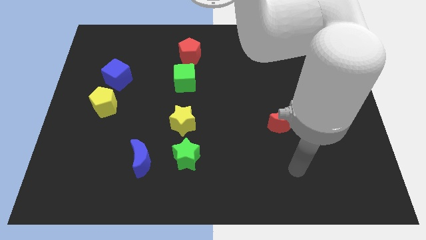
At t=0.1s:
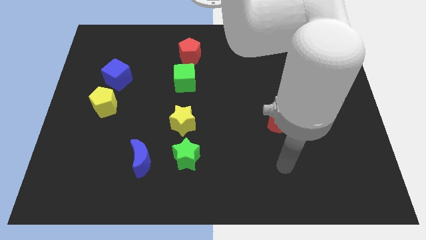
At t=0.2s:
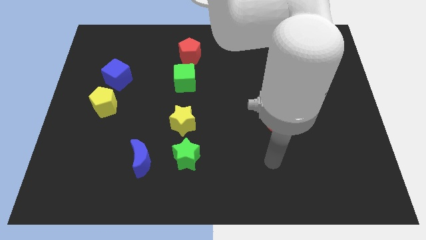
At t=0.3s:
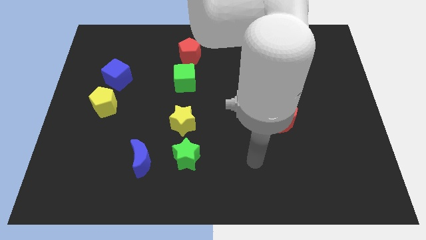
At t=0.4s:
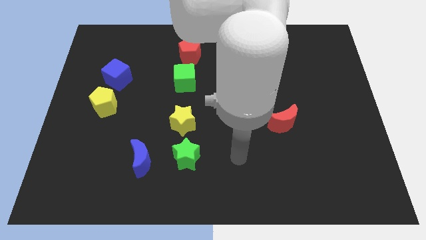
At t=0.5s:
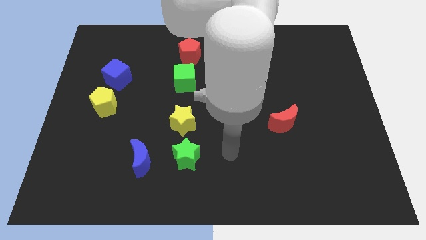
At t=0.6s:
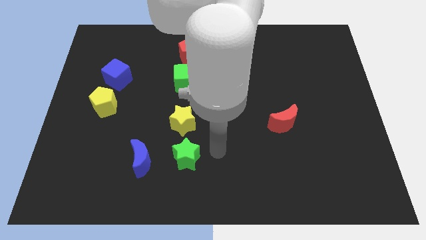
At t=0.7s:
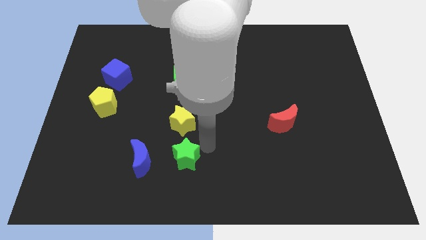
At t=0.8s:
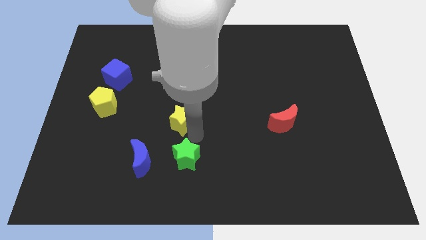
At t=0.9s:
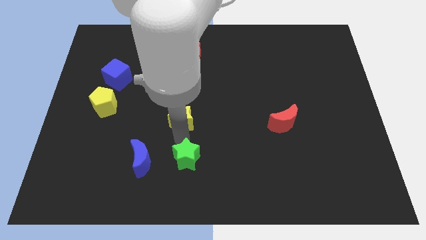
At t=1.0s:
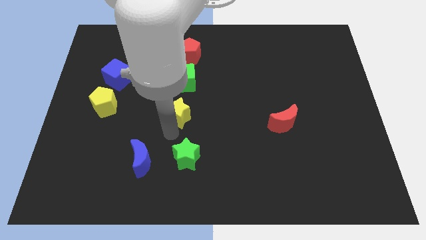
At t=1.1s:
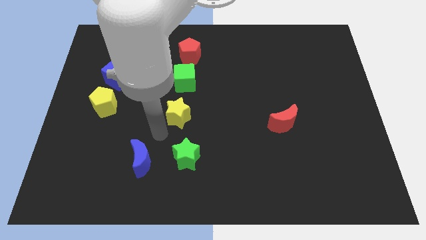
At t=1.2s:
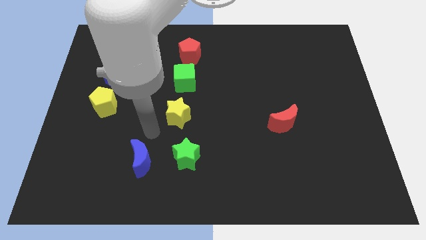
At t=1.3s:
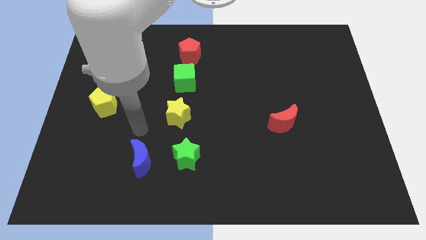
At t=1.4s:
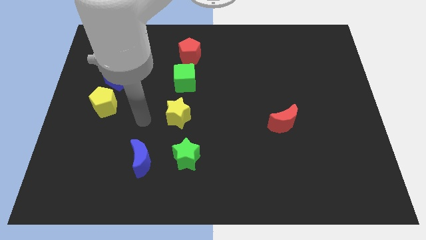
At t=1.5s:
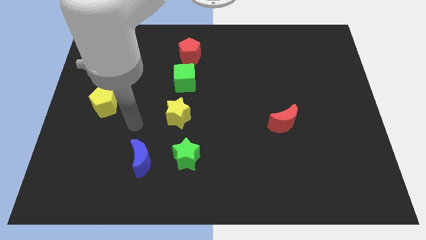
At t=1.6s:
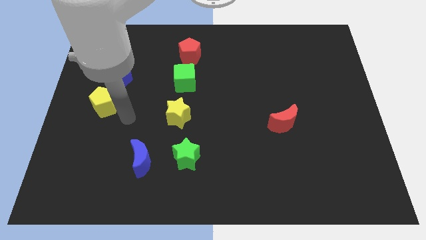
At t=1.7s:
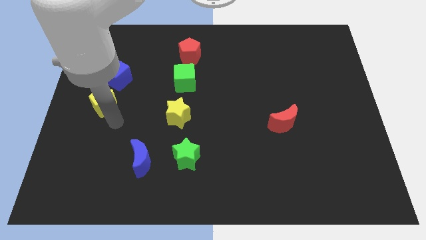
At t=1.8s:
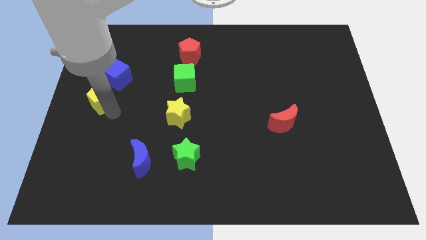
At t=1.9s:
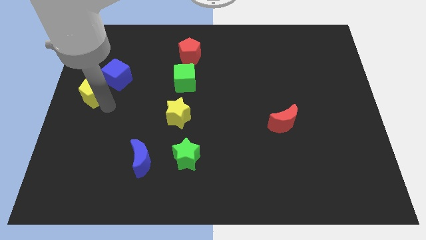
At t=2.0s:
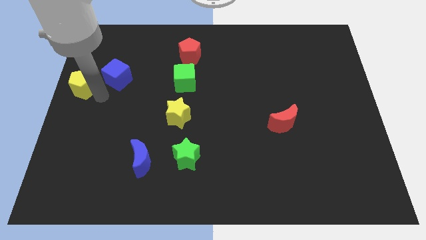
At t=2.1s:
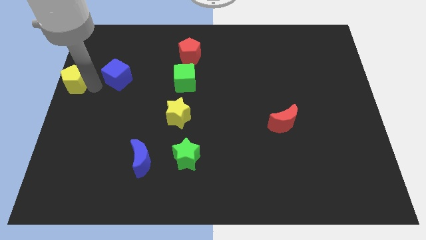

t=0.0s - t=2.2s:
move the blue cube away from the yellow pentagon

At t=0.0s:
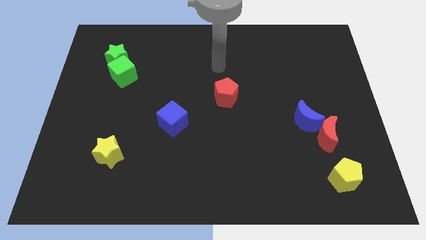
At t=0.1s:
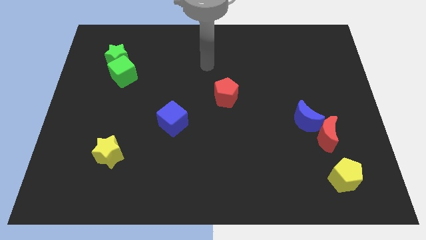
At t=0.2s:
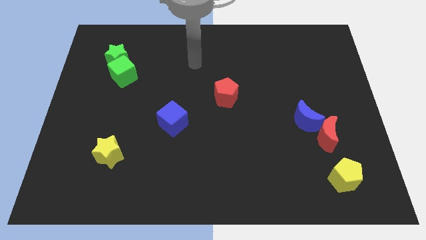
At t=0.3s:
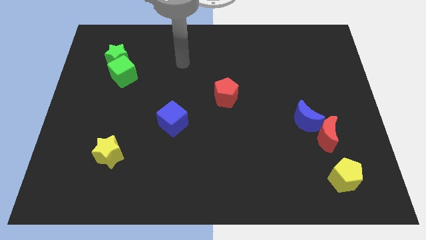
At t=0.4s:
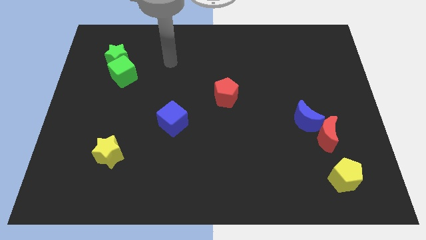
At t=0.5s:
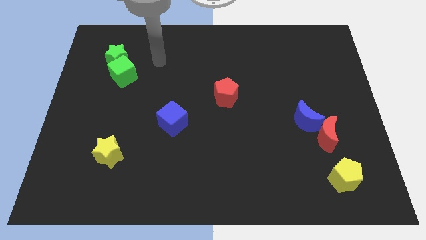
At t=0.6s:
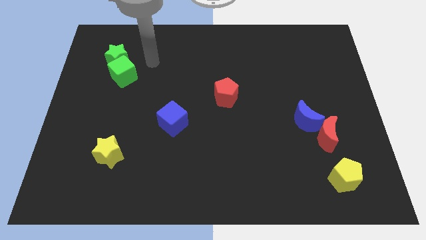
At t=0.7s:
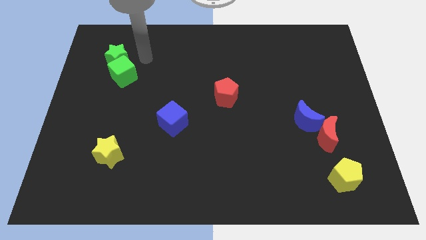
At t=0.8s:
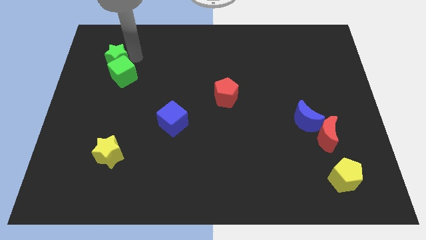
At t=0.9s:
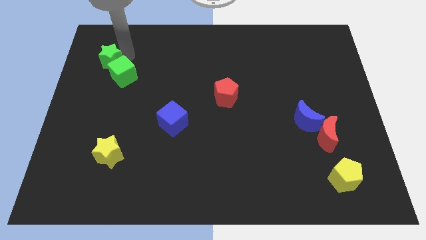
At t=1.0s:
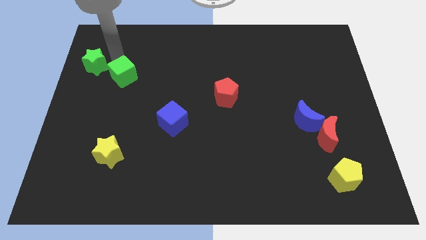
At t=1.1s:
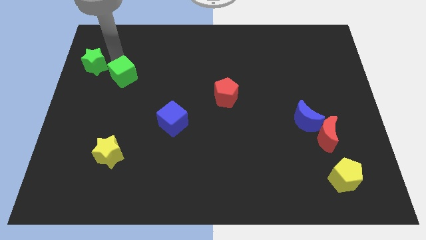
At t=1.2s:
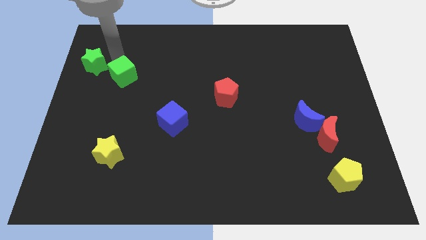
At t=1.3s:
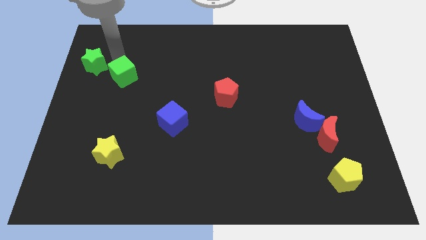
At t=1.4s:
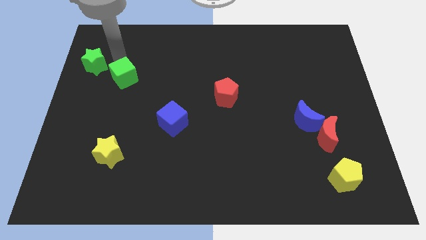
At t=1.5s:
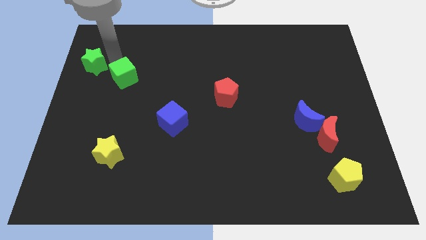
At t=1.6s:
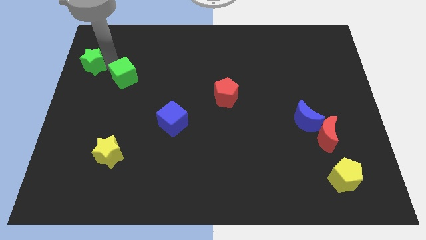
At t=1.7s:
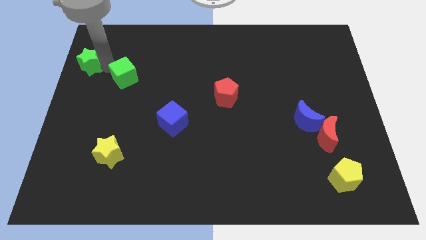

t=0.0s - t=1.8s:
separate the green cube from the green star

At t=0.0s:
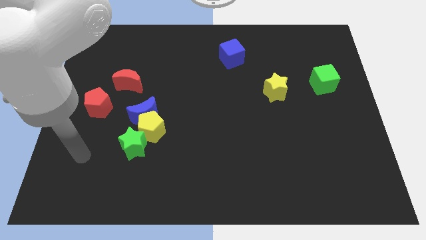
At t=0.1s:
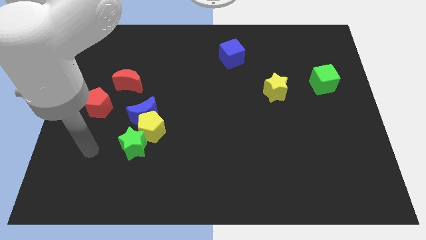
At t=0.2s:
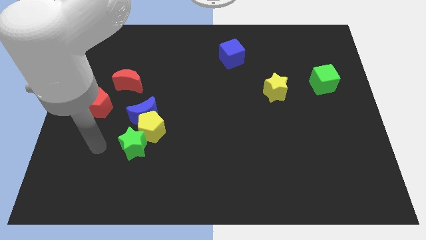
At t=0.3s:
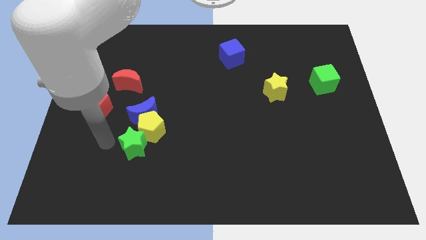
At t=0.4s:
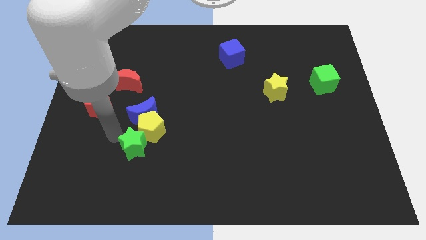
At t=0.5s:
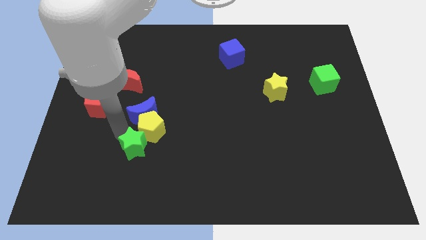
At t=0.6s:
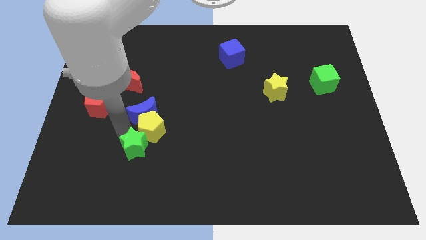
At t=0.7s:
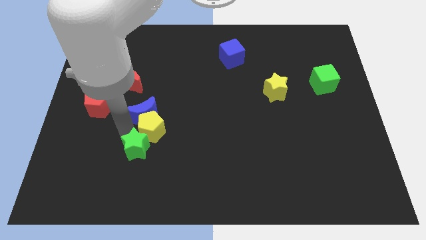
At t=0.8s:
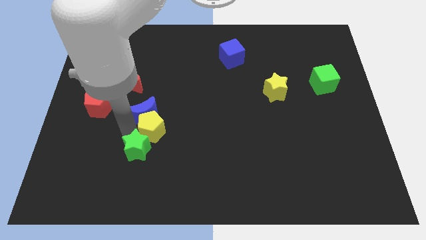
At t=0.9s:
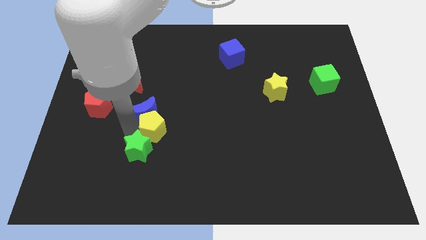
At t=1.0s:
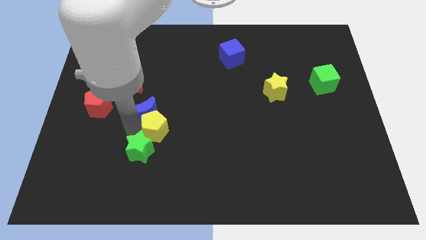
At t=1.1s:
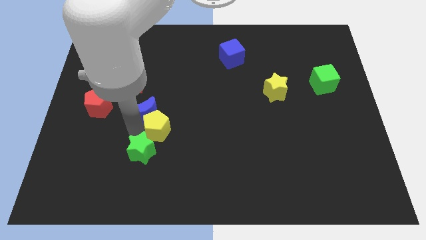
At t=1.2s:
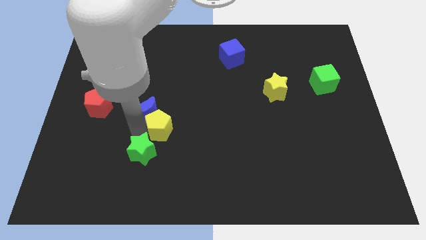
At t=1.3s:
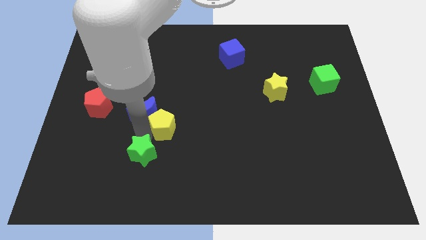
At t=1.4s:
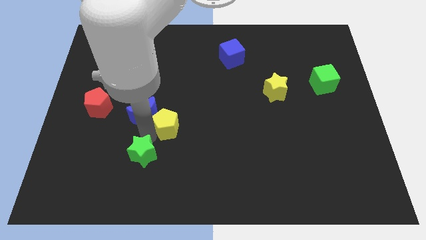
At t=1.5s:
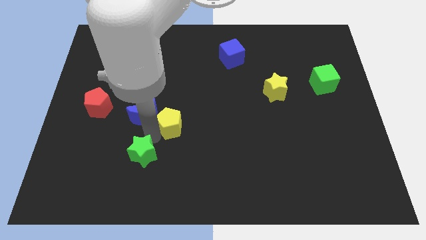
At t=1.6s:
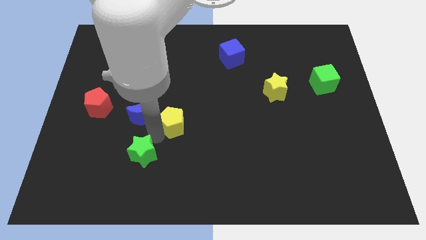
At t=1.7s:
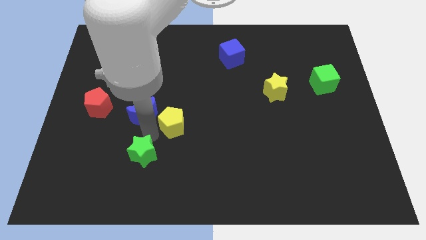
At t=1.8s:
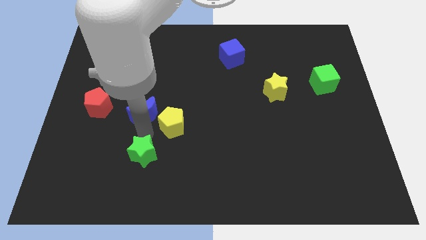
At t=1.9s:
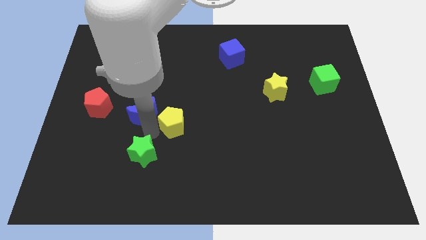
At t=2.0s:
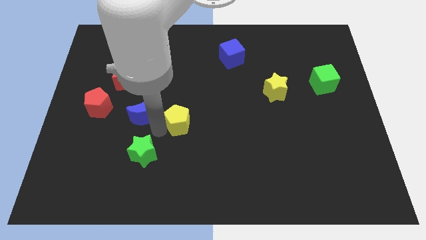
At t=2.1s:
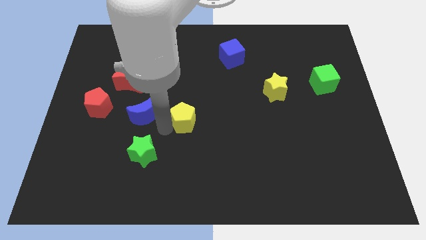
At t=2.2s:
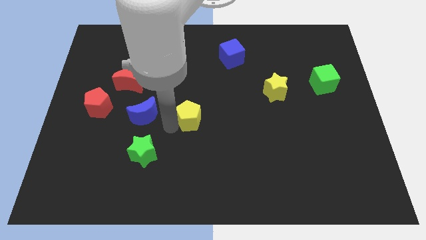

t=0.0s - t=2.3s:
move the yellow pentagon away from the blue moon and green star

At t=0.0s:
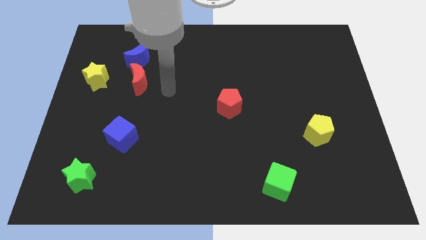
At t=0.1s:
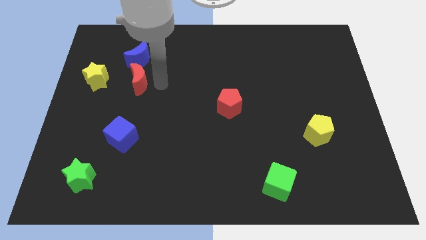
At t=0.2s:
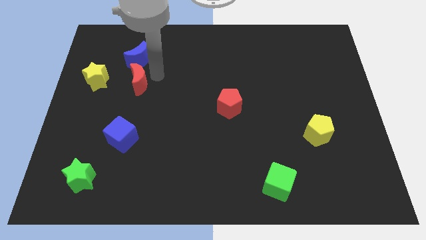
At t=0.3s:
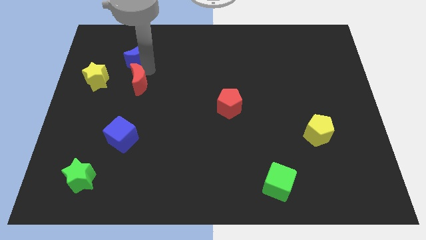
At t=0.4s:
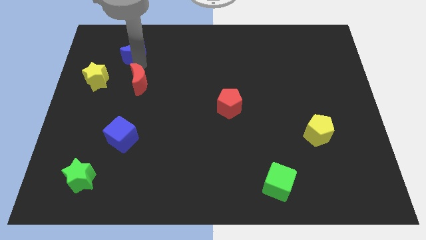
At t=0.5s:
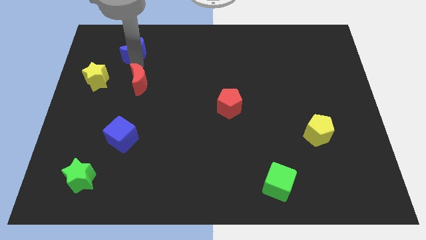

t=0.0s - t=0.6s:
move the red moon away from the blue moon

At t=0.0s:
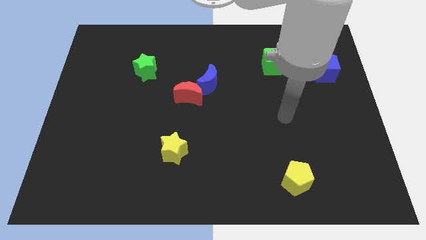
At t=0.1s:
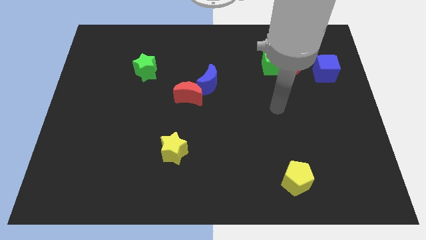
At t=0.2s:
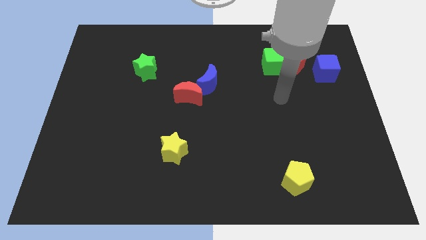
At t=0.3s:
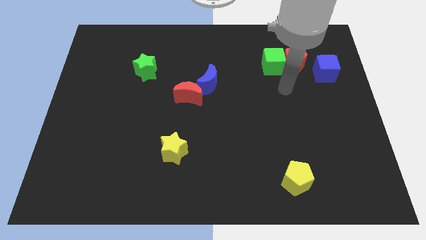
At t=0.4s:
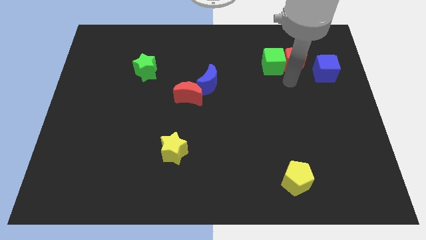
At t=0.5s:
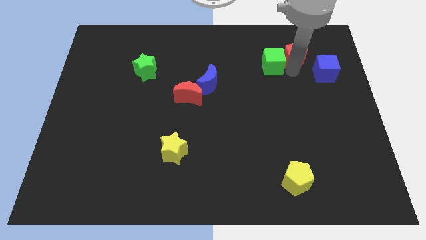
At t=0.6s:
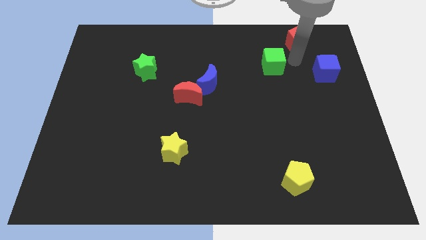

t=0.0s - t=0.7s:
separate the green cube from the red pentagon

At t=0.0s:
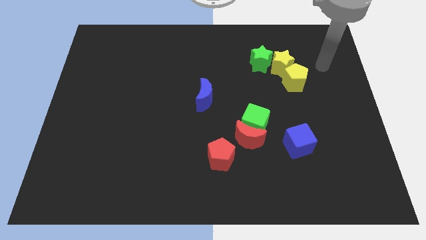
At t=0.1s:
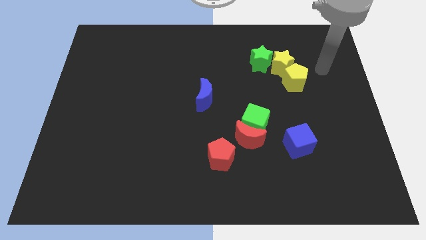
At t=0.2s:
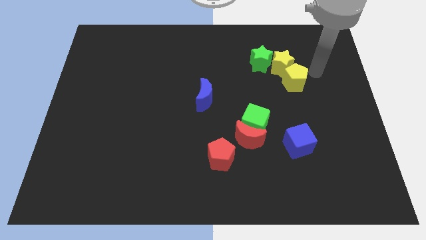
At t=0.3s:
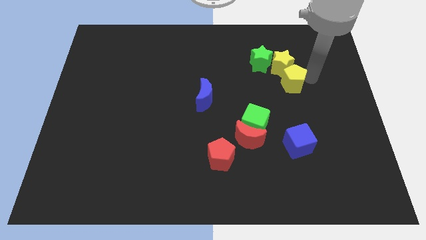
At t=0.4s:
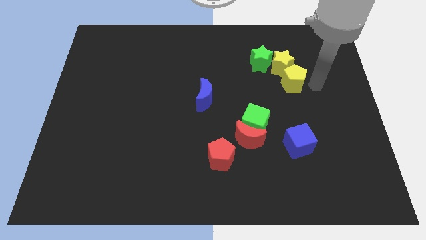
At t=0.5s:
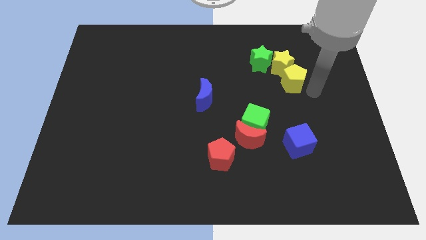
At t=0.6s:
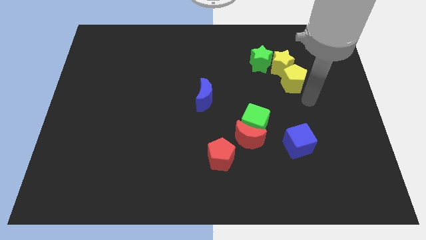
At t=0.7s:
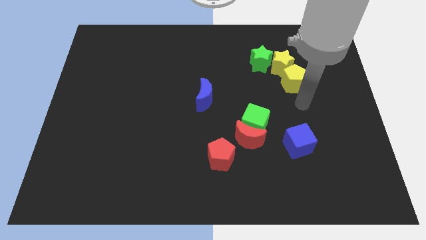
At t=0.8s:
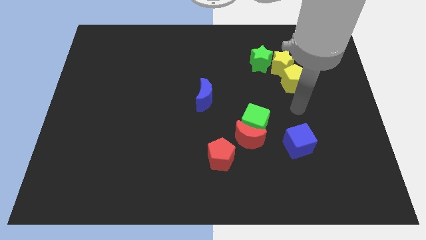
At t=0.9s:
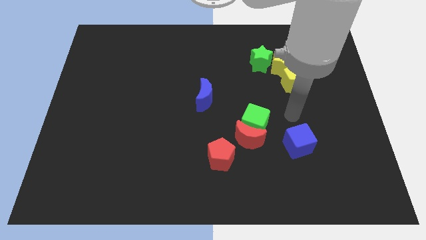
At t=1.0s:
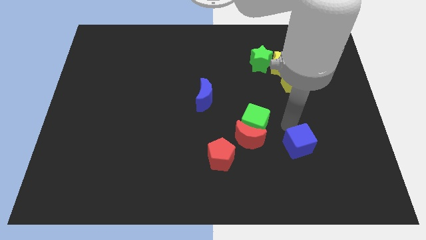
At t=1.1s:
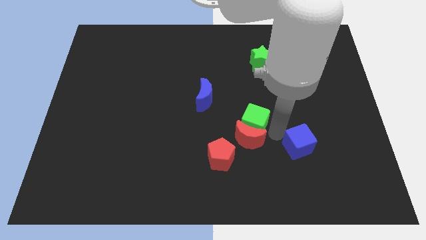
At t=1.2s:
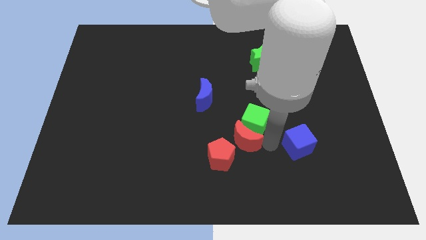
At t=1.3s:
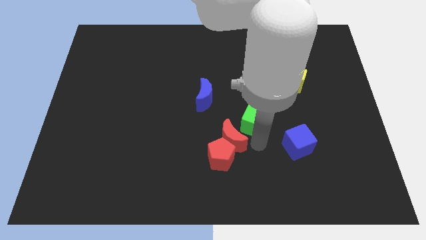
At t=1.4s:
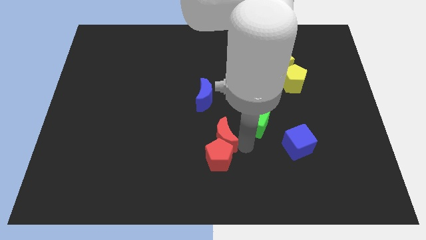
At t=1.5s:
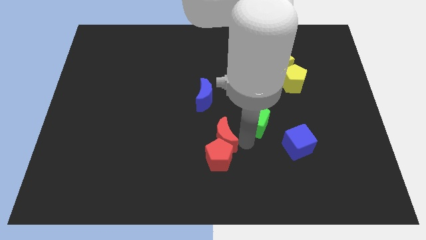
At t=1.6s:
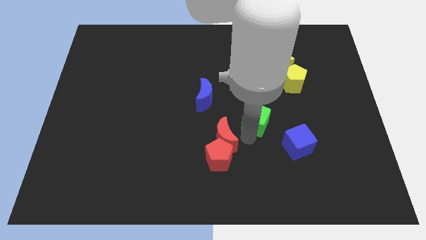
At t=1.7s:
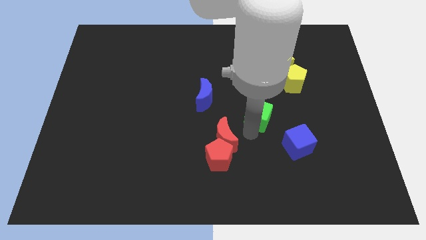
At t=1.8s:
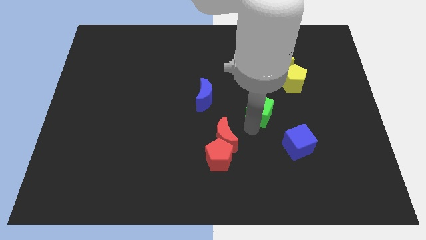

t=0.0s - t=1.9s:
pull the green cube apart from the red moon
